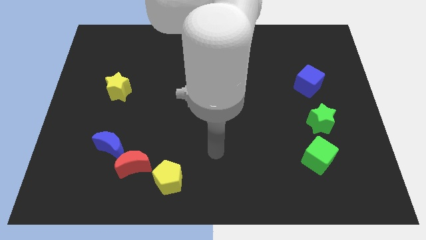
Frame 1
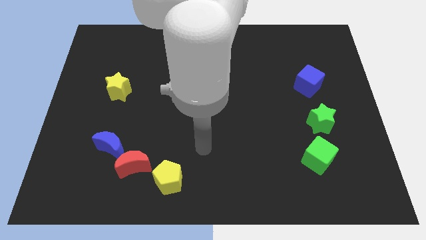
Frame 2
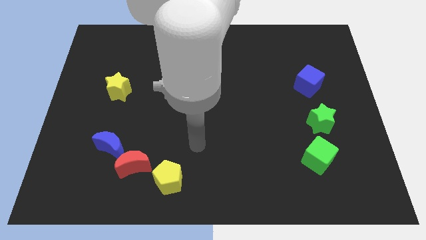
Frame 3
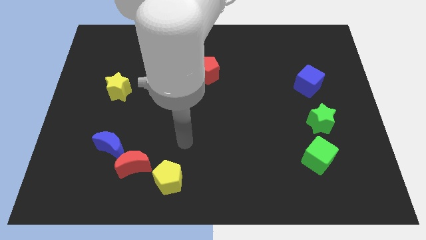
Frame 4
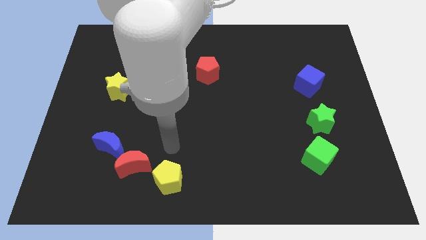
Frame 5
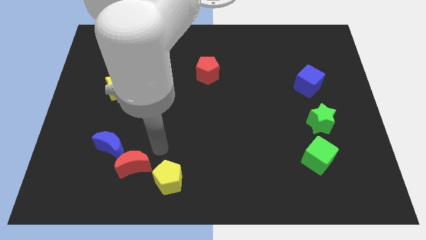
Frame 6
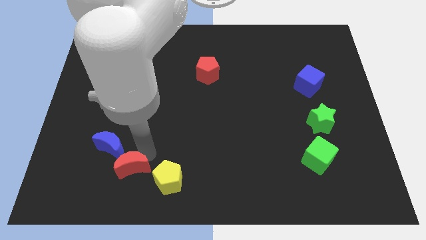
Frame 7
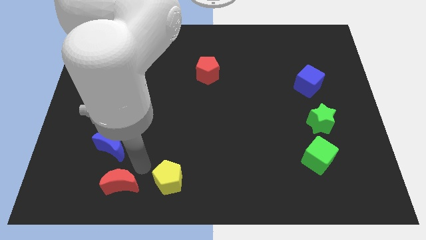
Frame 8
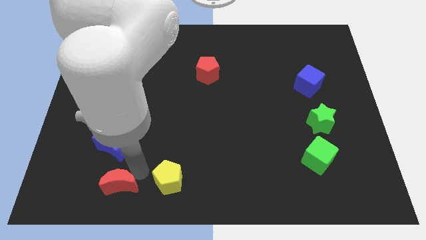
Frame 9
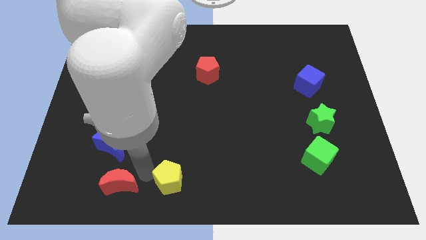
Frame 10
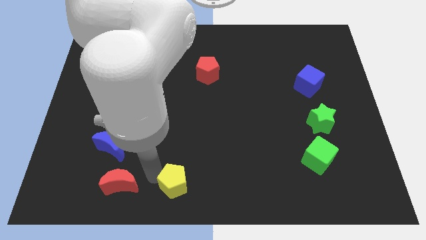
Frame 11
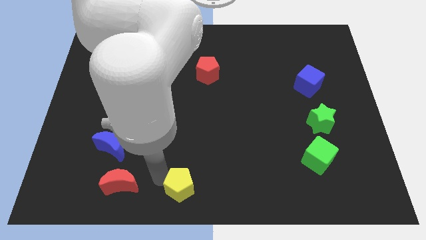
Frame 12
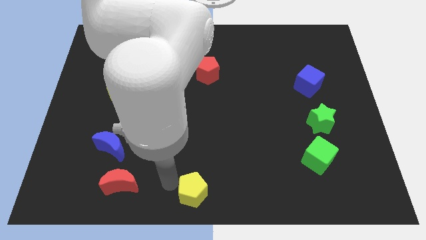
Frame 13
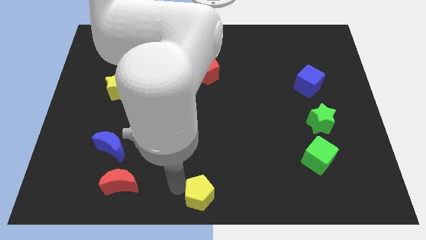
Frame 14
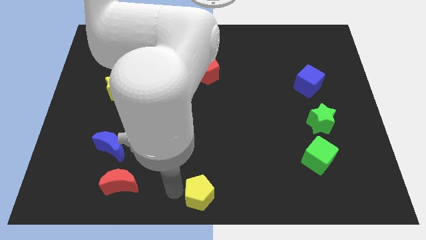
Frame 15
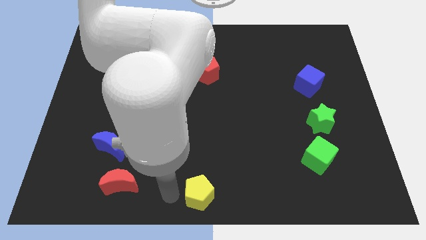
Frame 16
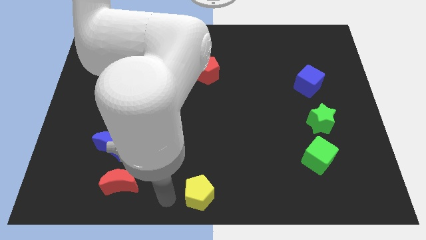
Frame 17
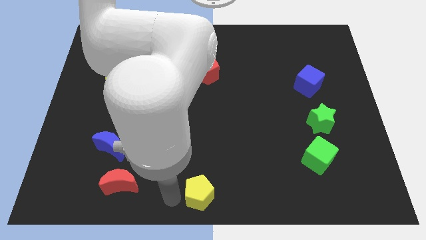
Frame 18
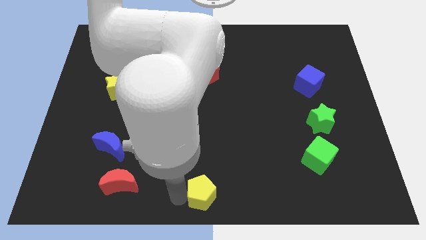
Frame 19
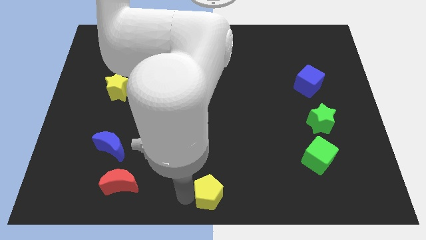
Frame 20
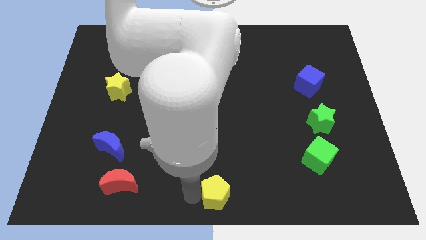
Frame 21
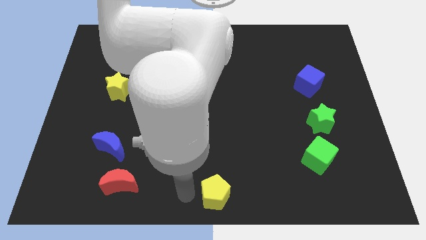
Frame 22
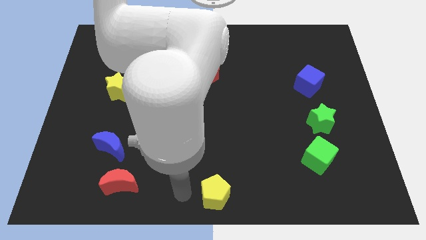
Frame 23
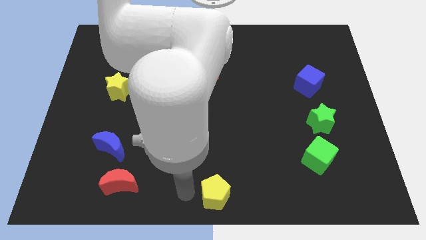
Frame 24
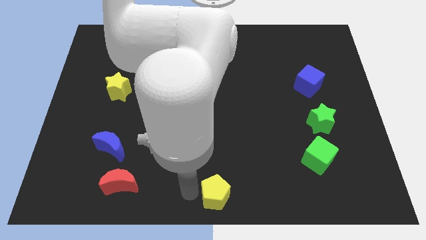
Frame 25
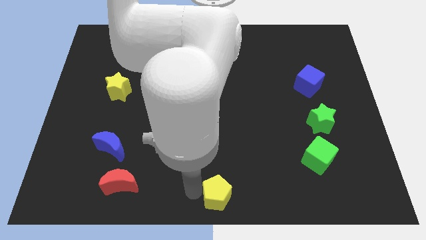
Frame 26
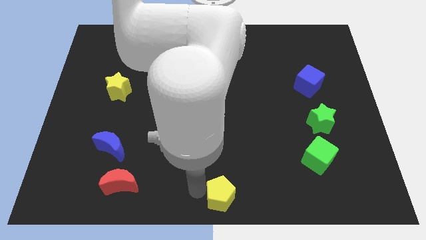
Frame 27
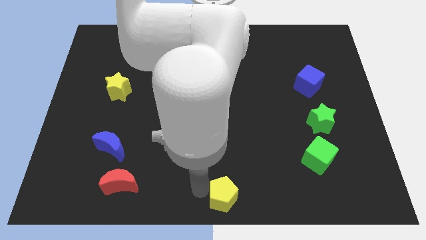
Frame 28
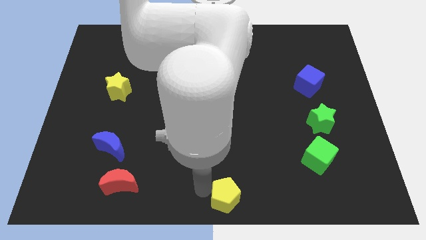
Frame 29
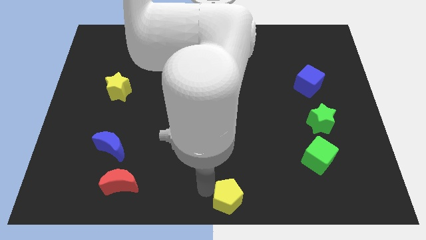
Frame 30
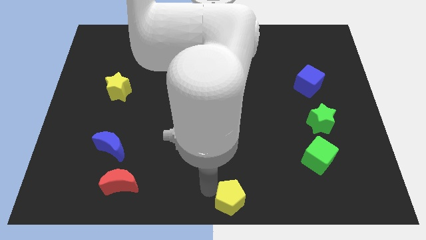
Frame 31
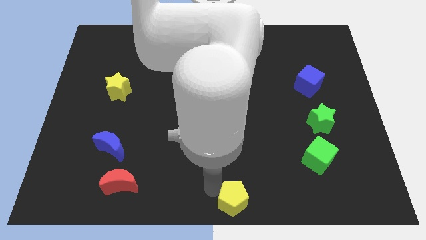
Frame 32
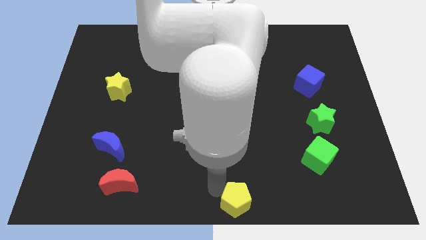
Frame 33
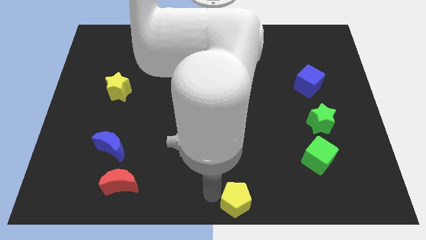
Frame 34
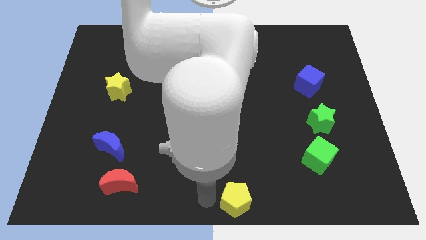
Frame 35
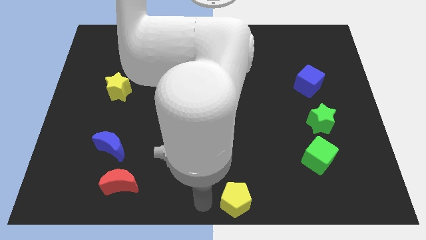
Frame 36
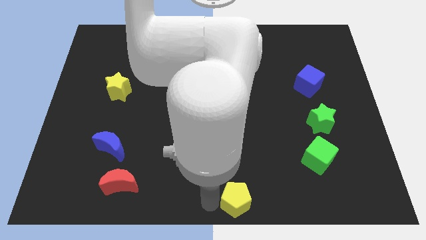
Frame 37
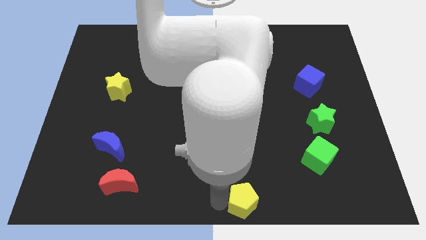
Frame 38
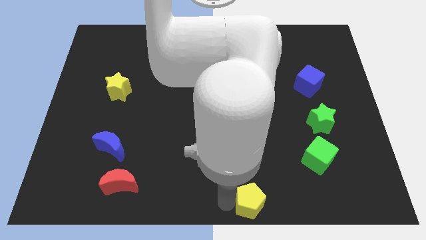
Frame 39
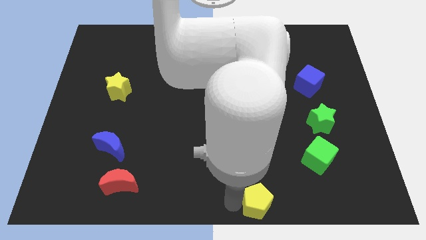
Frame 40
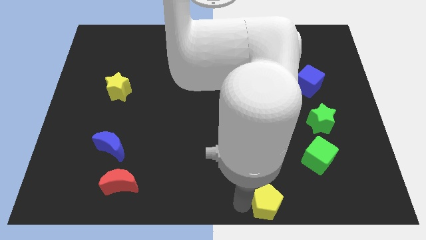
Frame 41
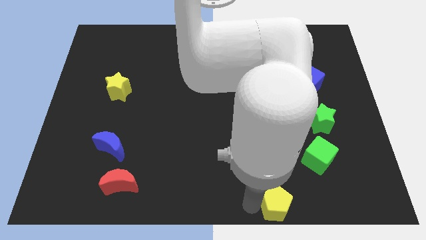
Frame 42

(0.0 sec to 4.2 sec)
slide the yellow pentagon right

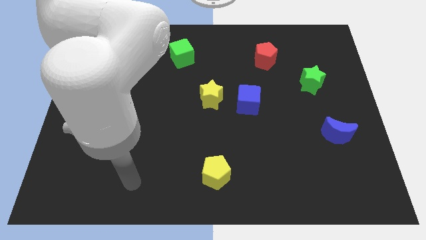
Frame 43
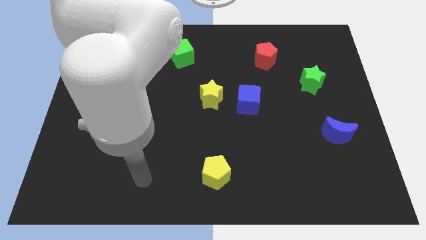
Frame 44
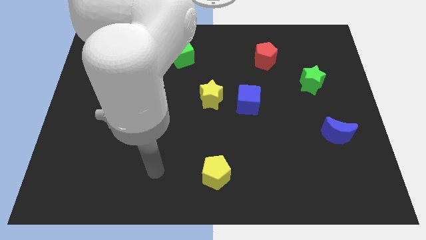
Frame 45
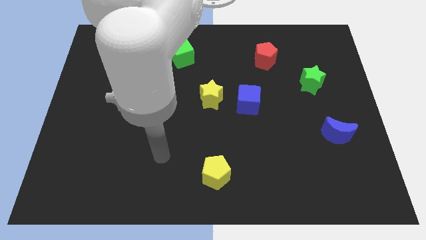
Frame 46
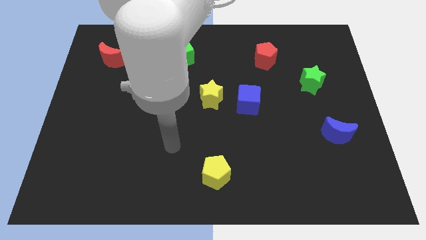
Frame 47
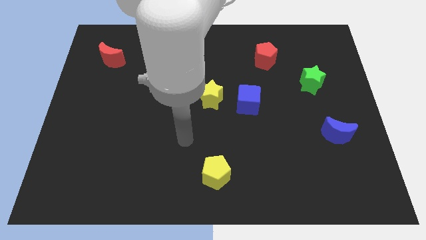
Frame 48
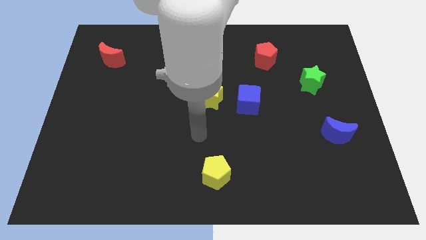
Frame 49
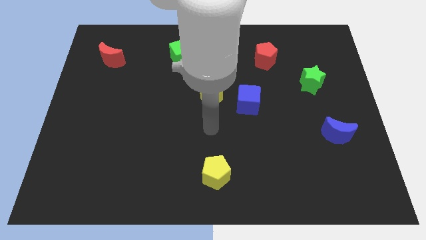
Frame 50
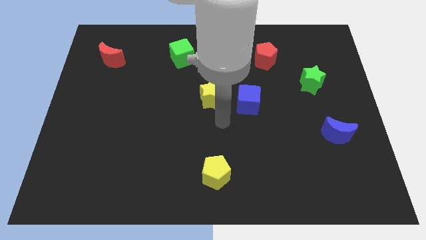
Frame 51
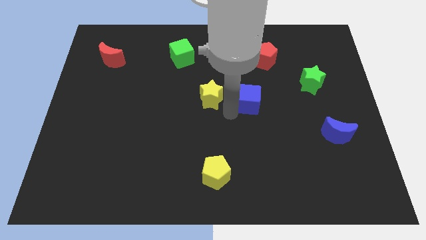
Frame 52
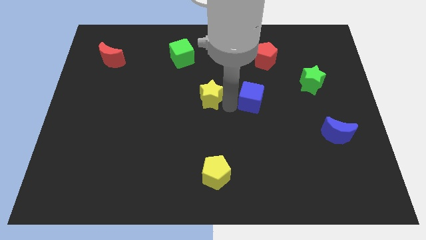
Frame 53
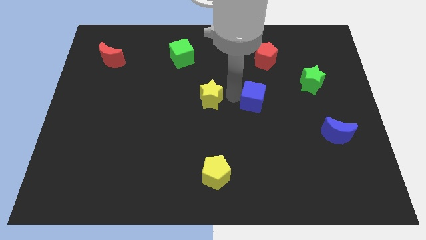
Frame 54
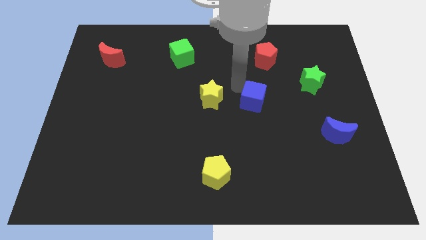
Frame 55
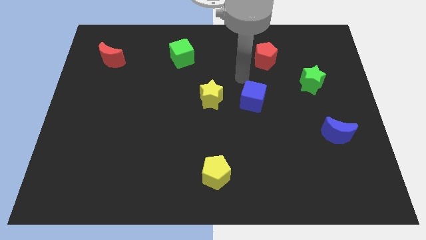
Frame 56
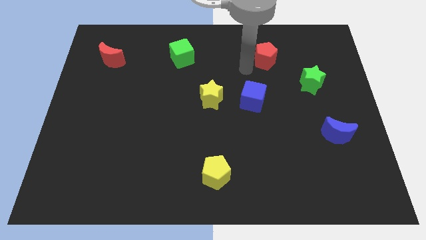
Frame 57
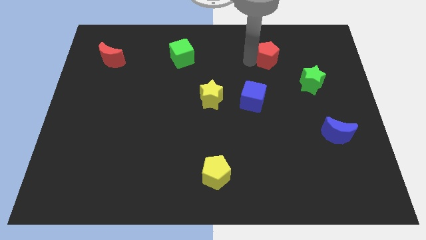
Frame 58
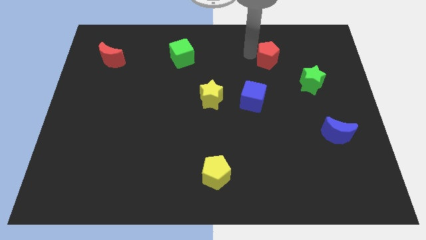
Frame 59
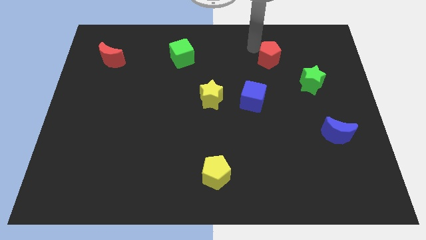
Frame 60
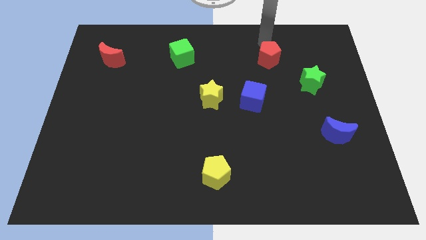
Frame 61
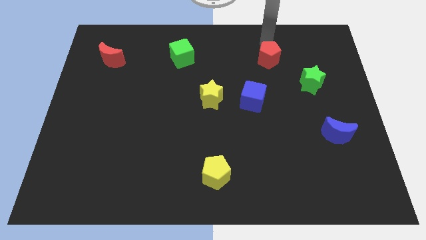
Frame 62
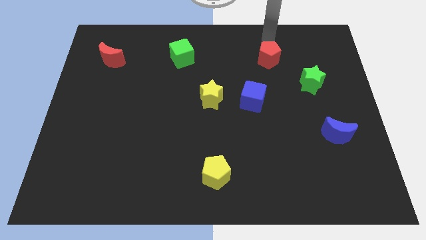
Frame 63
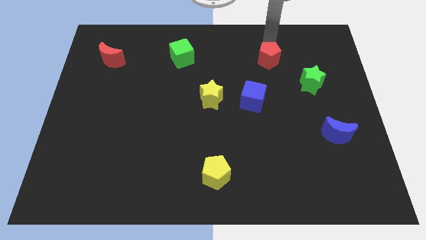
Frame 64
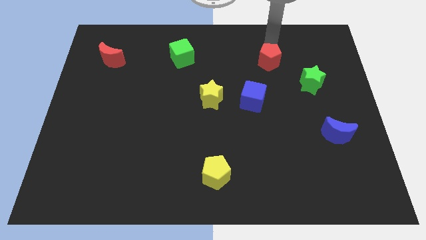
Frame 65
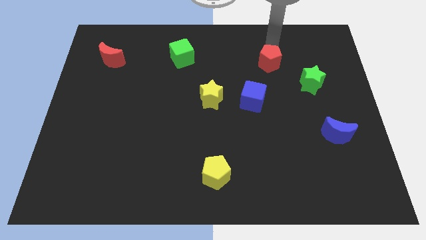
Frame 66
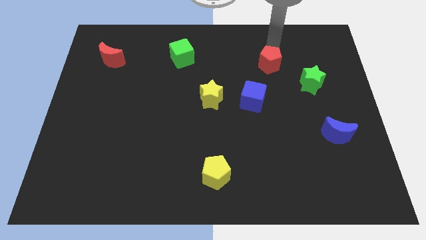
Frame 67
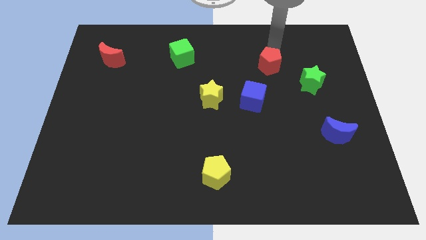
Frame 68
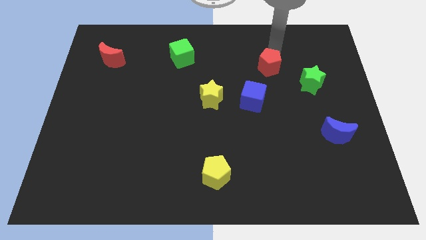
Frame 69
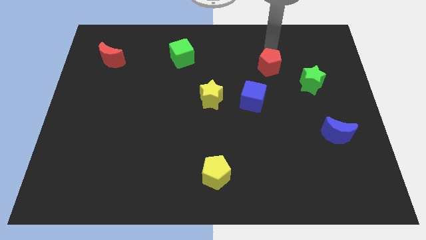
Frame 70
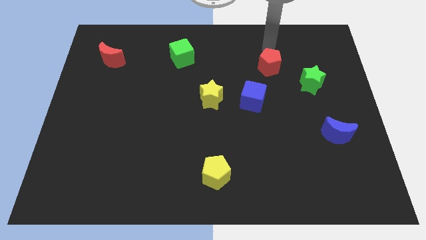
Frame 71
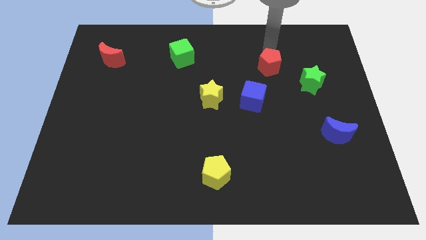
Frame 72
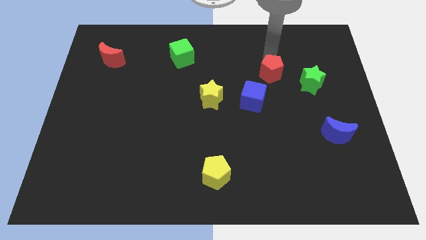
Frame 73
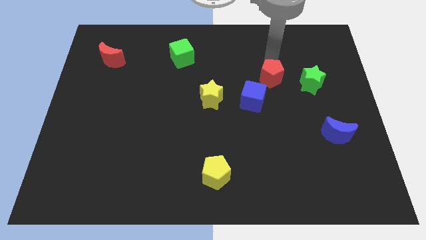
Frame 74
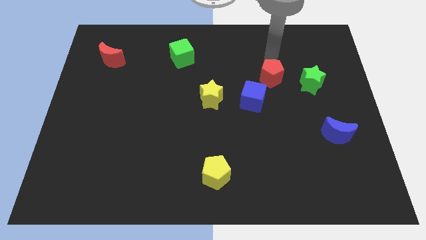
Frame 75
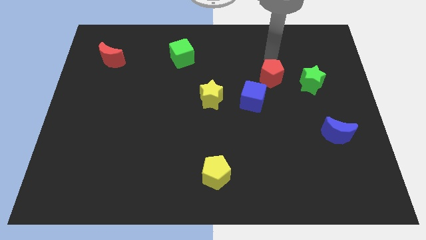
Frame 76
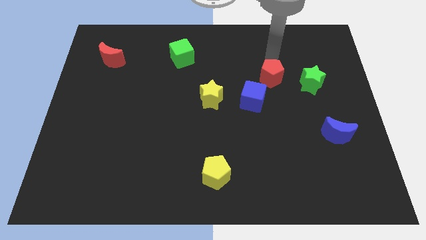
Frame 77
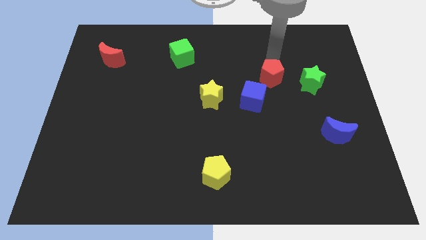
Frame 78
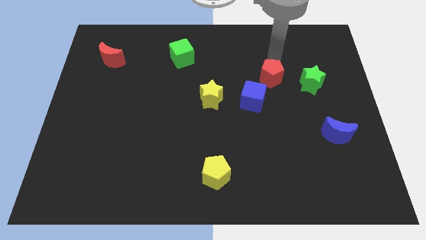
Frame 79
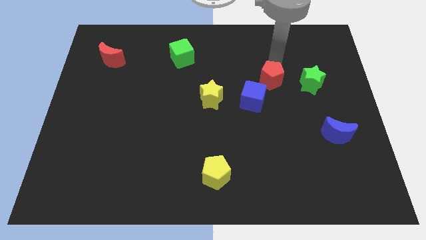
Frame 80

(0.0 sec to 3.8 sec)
slide the red pentagon down a little bit

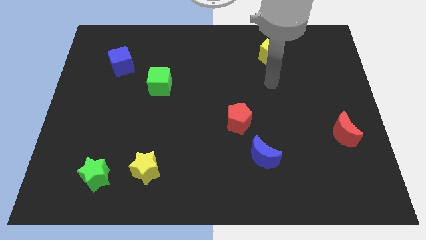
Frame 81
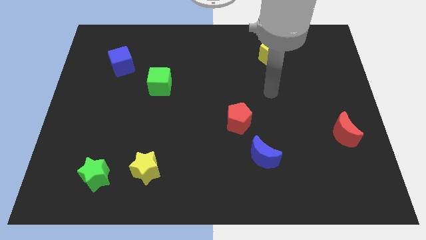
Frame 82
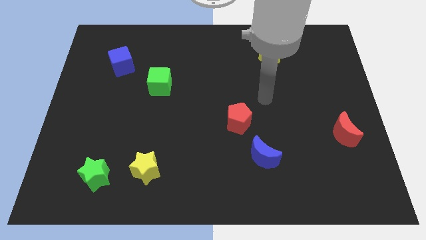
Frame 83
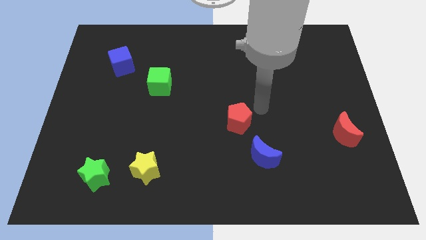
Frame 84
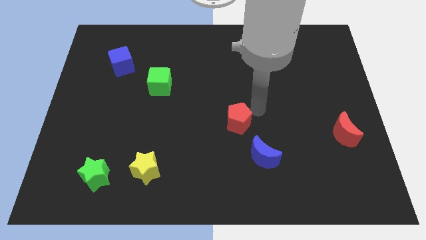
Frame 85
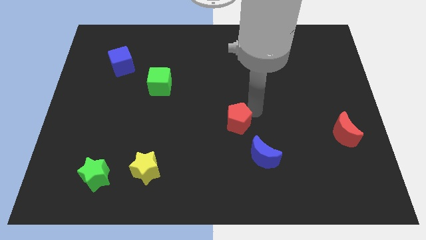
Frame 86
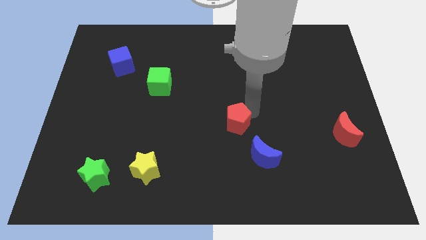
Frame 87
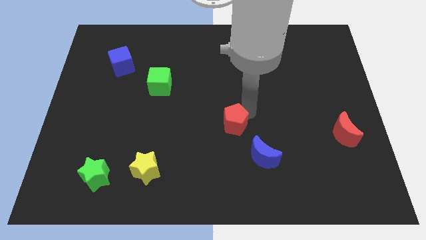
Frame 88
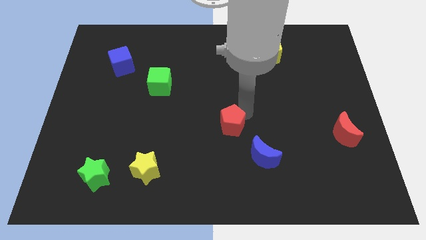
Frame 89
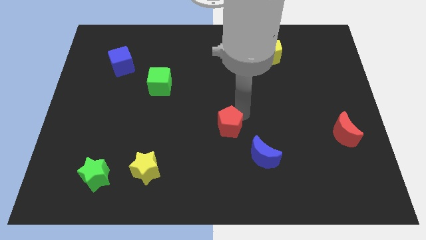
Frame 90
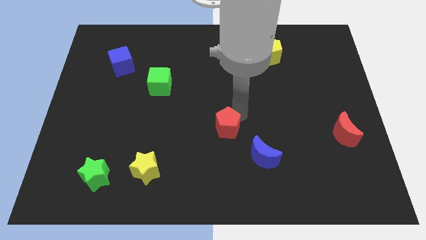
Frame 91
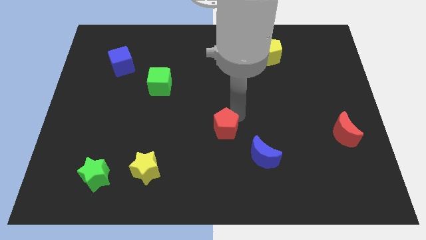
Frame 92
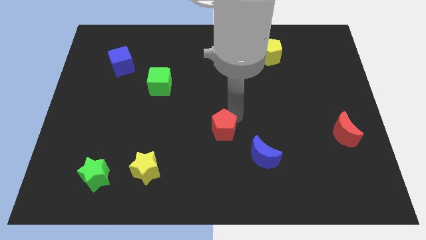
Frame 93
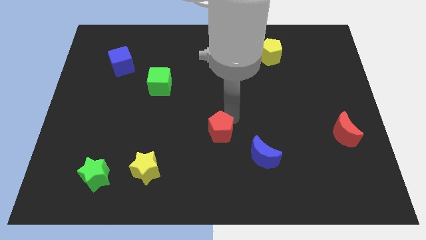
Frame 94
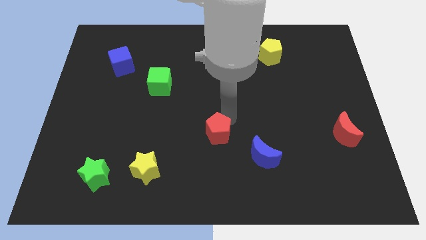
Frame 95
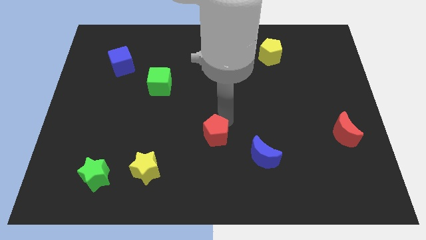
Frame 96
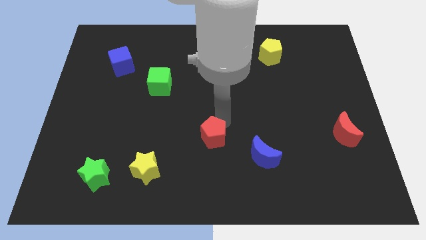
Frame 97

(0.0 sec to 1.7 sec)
slide the red pentagon diagonally down and to the left a little bit
